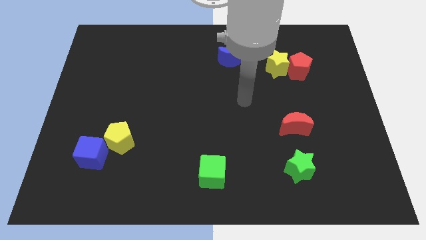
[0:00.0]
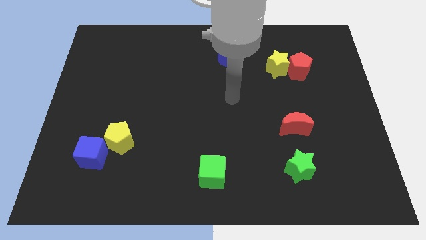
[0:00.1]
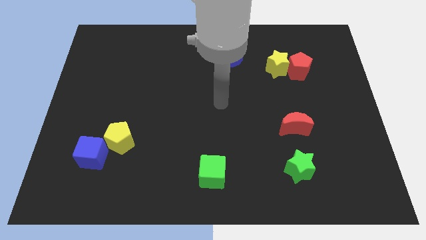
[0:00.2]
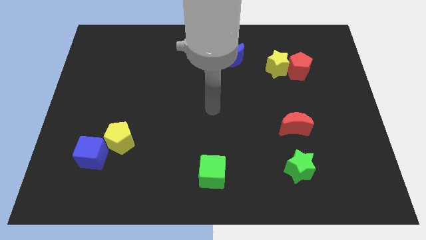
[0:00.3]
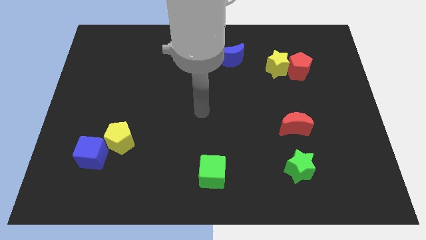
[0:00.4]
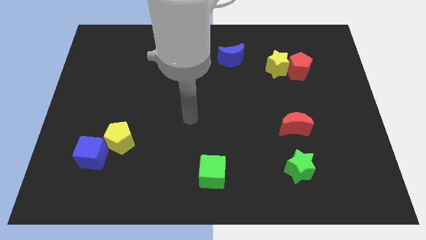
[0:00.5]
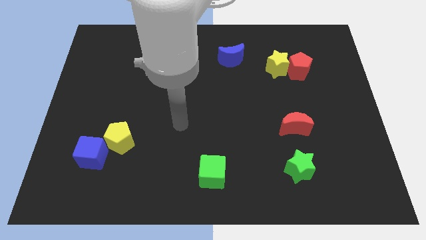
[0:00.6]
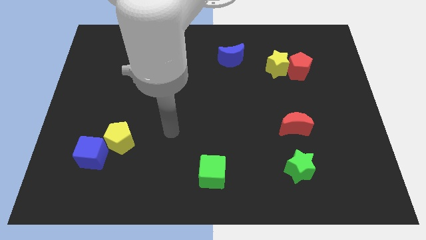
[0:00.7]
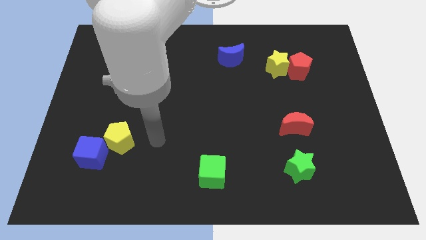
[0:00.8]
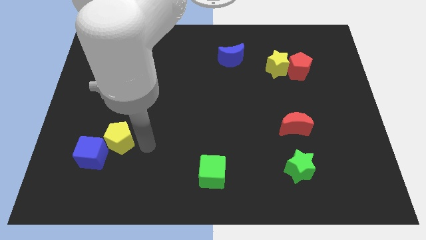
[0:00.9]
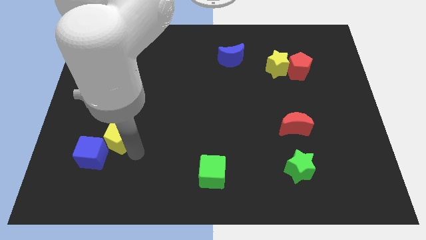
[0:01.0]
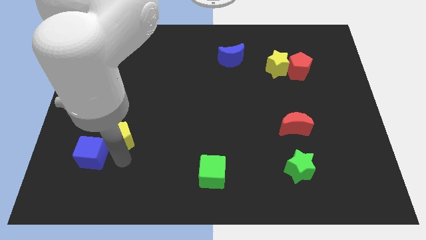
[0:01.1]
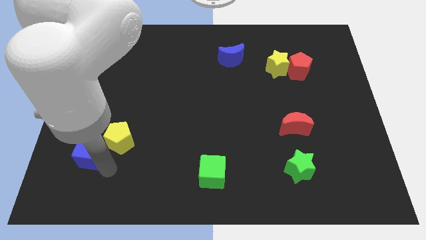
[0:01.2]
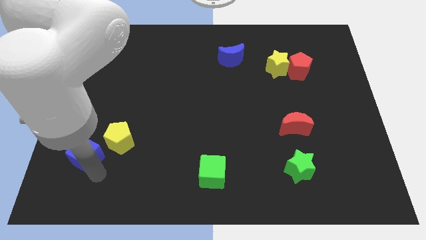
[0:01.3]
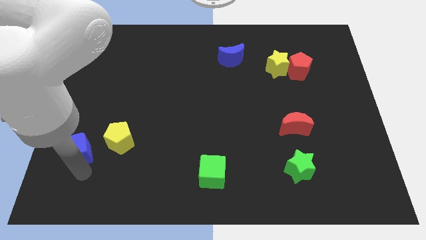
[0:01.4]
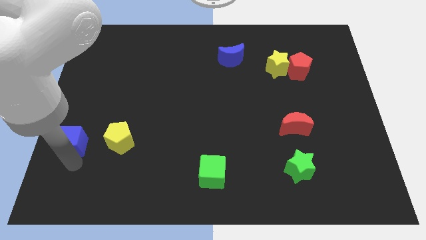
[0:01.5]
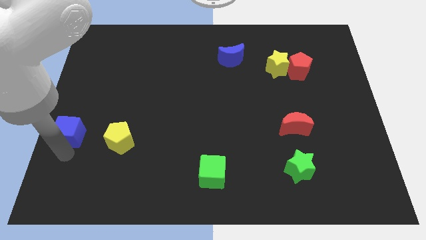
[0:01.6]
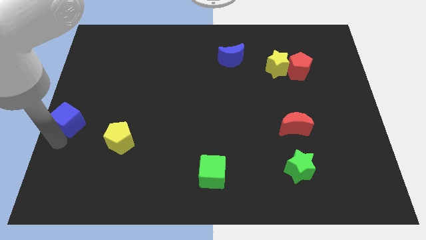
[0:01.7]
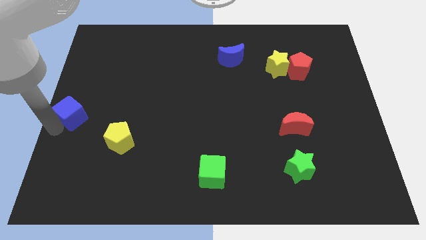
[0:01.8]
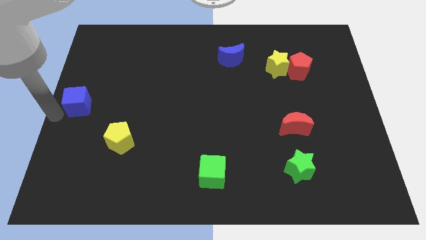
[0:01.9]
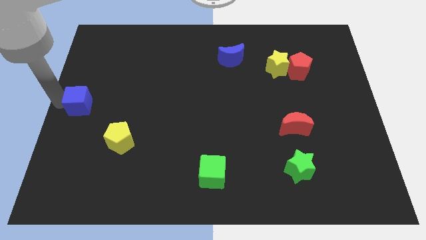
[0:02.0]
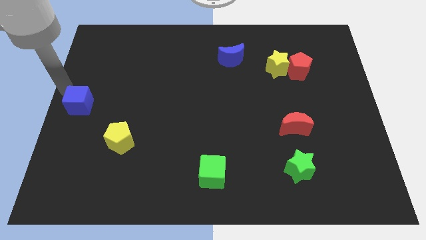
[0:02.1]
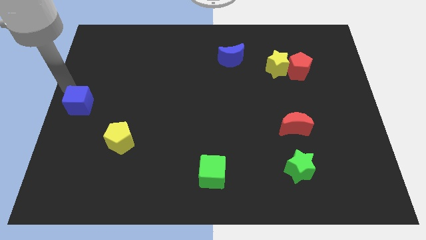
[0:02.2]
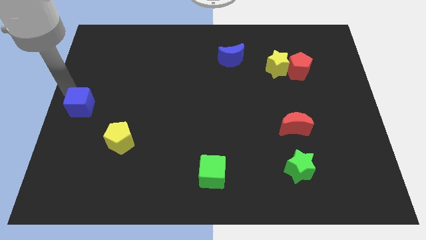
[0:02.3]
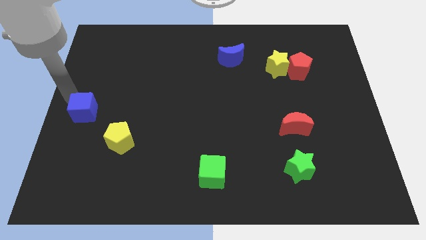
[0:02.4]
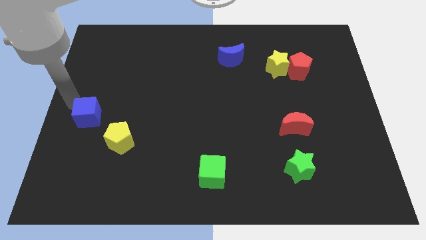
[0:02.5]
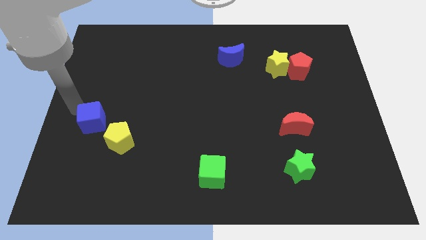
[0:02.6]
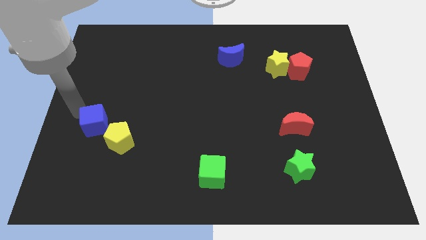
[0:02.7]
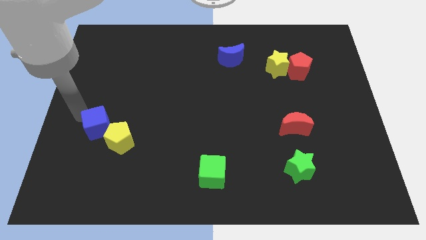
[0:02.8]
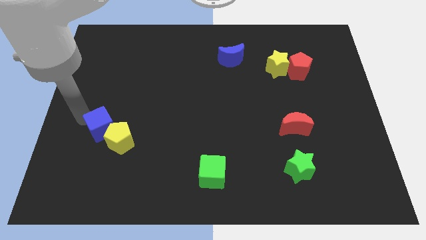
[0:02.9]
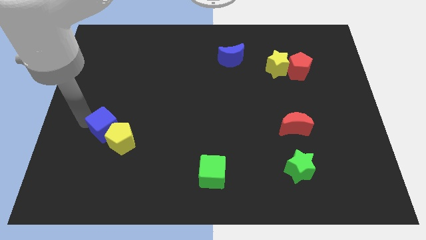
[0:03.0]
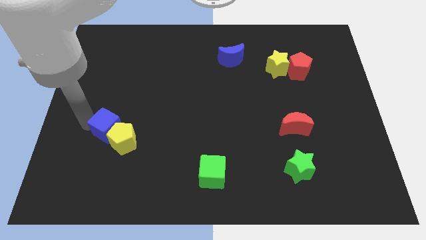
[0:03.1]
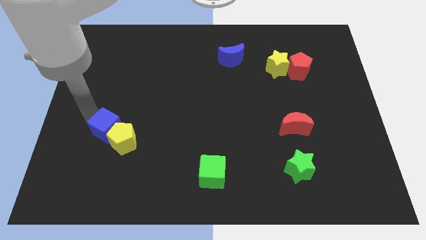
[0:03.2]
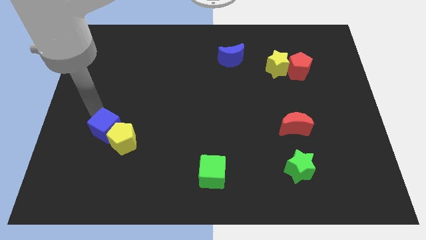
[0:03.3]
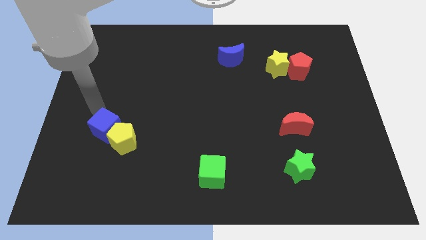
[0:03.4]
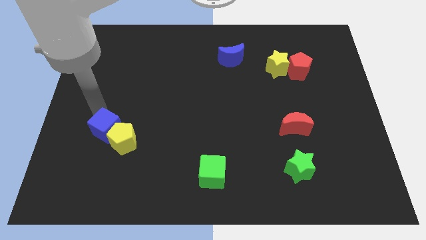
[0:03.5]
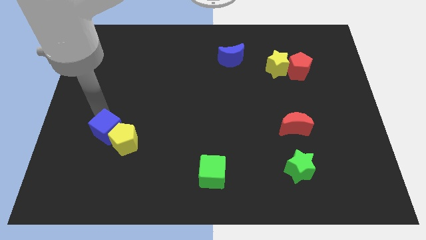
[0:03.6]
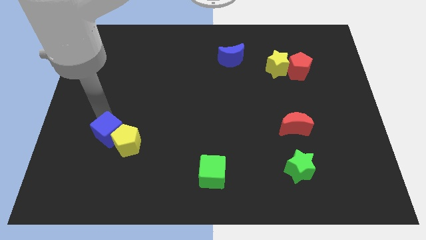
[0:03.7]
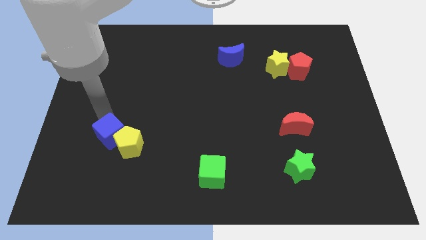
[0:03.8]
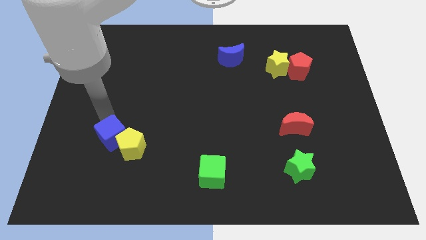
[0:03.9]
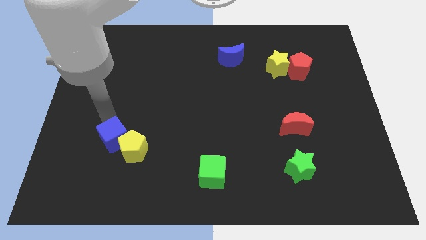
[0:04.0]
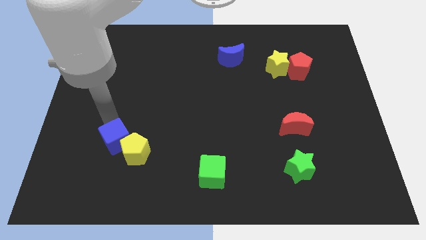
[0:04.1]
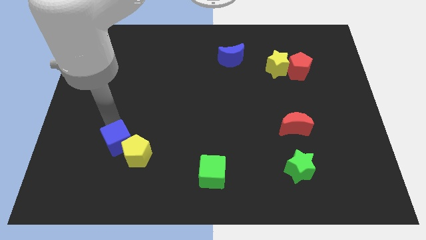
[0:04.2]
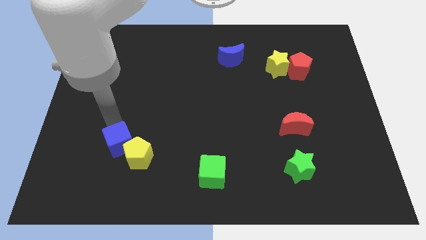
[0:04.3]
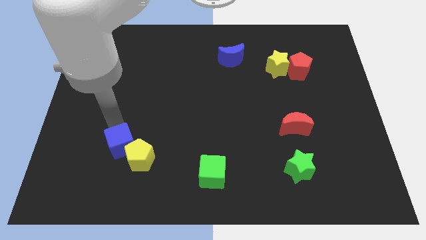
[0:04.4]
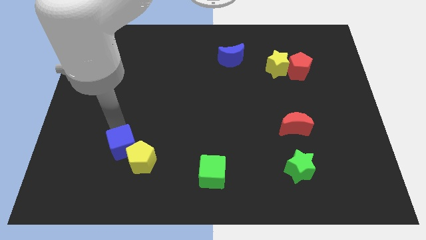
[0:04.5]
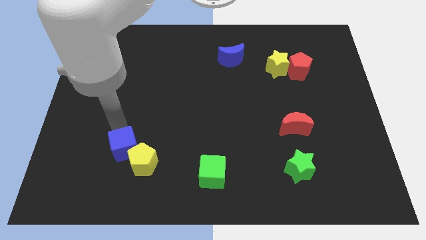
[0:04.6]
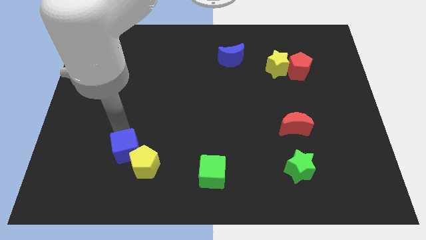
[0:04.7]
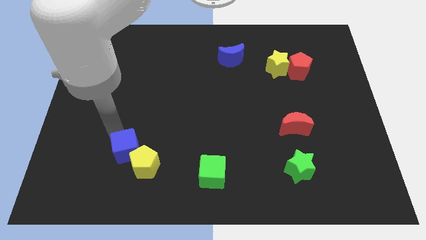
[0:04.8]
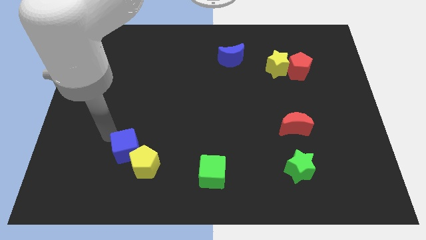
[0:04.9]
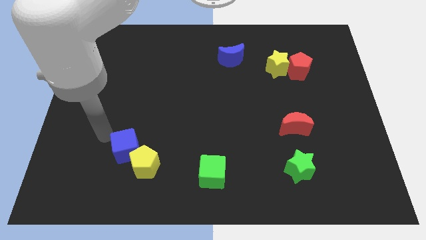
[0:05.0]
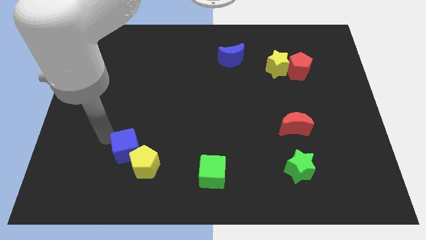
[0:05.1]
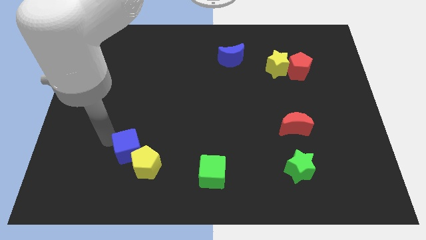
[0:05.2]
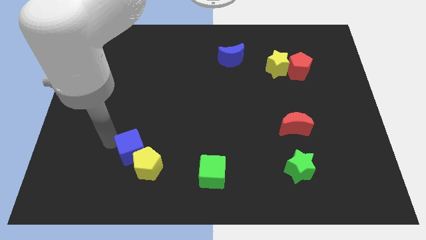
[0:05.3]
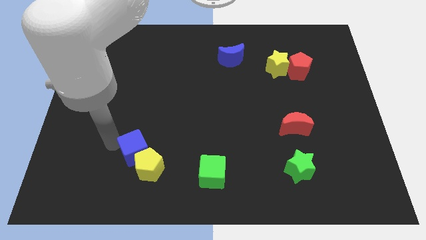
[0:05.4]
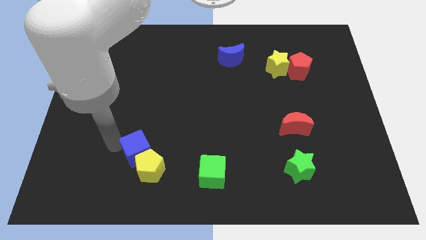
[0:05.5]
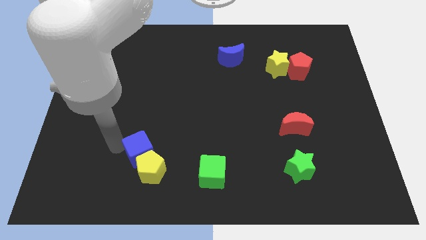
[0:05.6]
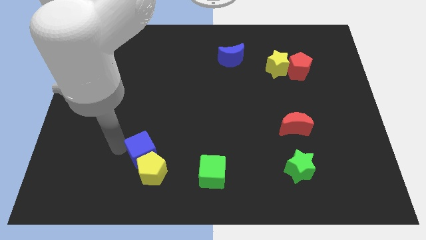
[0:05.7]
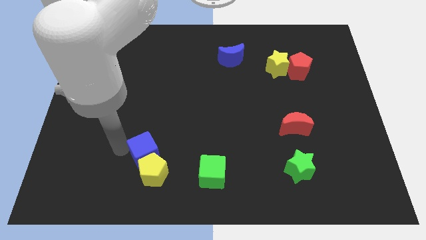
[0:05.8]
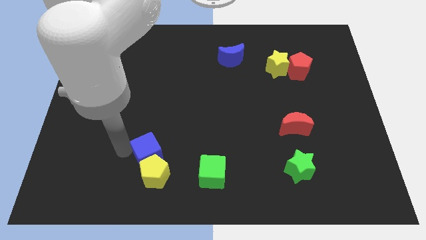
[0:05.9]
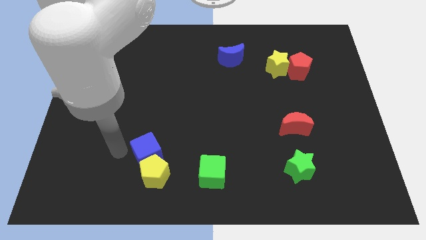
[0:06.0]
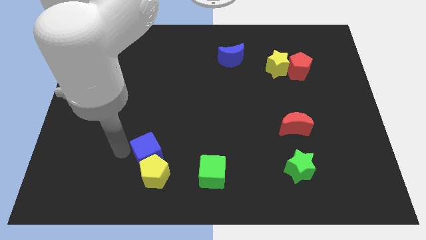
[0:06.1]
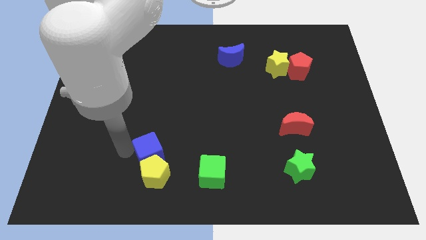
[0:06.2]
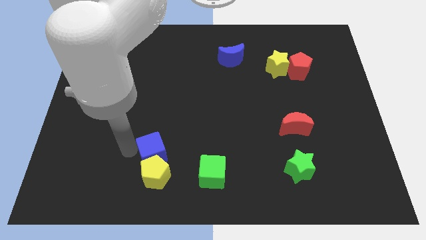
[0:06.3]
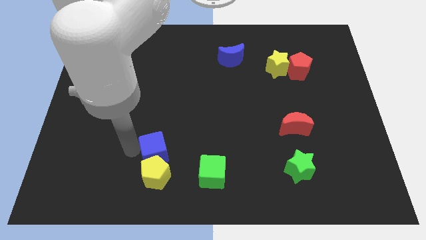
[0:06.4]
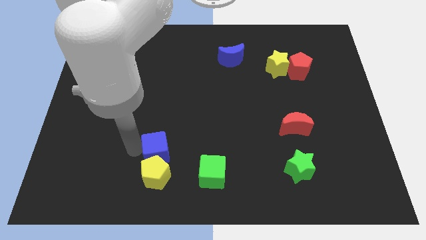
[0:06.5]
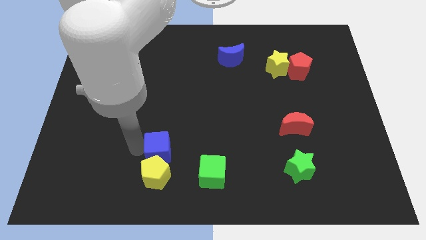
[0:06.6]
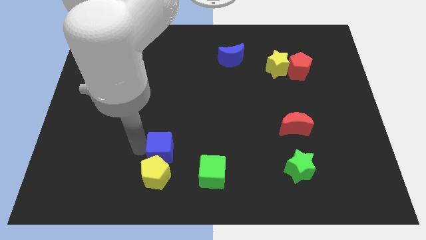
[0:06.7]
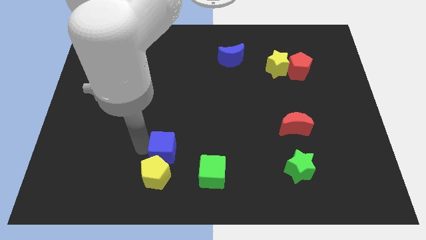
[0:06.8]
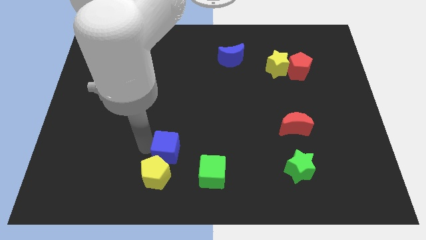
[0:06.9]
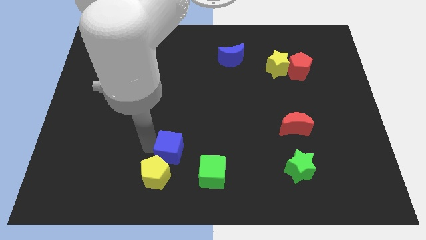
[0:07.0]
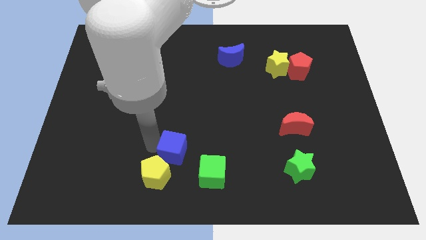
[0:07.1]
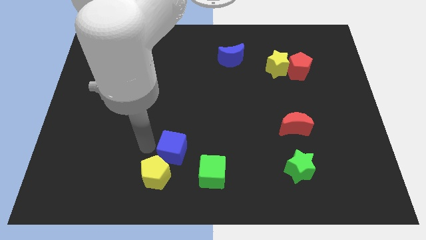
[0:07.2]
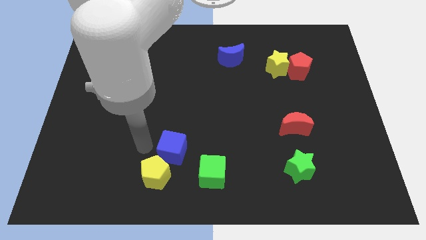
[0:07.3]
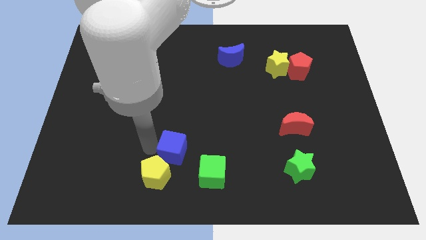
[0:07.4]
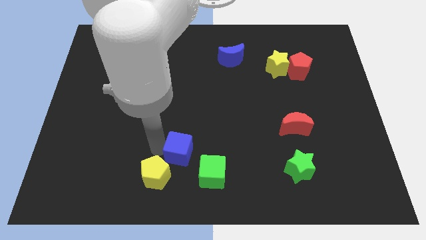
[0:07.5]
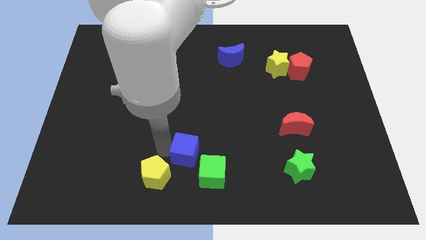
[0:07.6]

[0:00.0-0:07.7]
slide the blue cube to the right

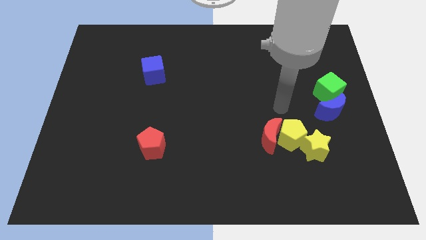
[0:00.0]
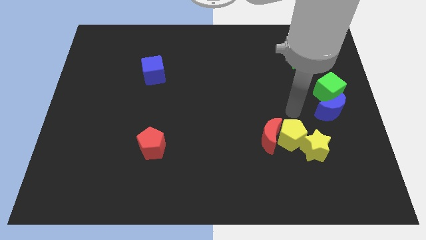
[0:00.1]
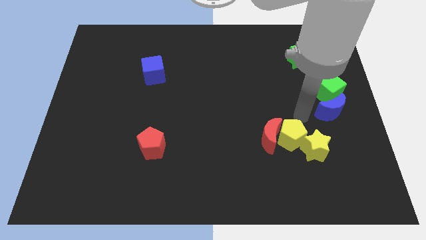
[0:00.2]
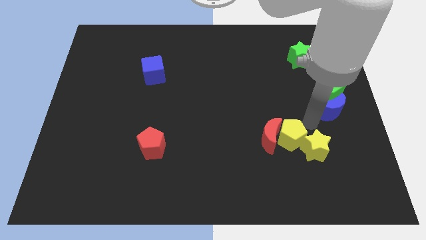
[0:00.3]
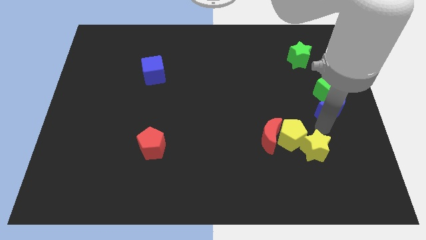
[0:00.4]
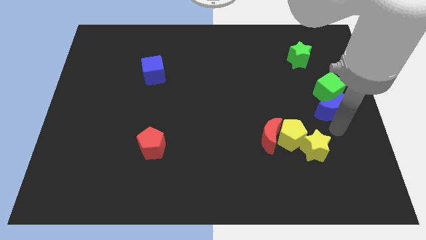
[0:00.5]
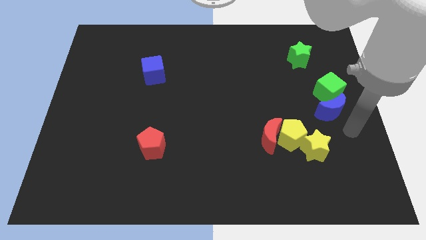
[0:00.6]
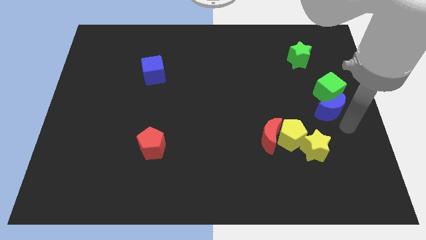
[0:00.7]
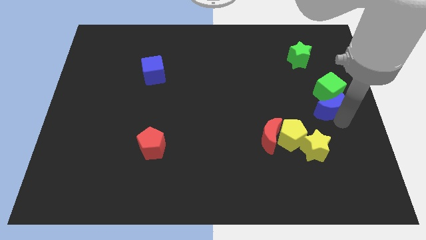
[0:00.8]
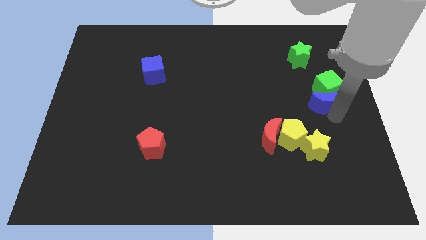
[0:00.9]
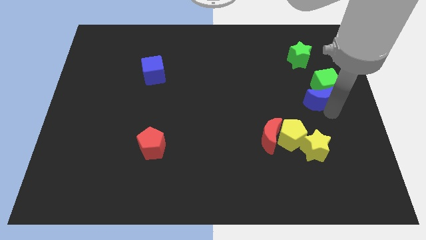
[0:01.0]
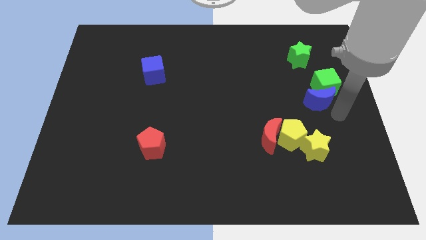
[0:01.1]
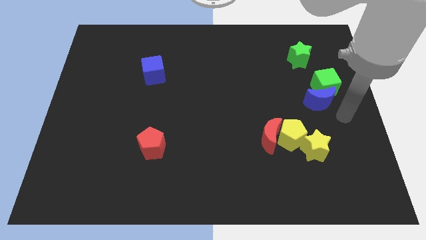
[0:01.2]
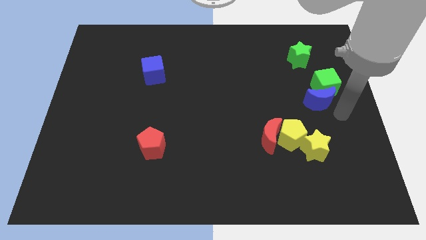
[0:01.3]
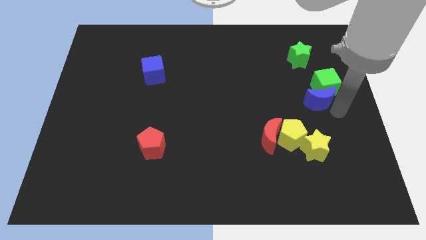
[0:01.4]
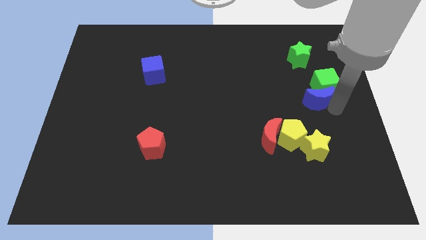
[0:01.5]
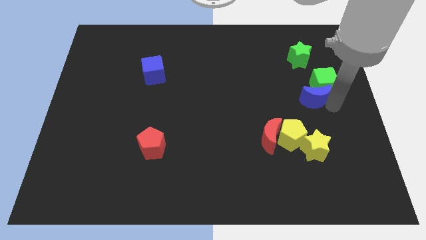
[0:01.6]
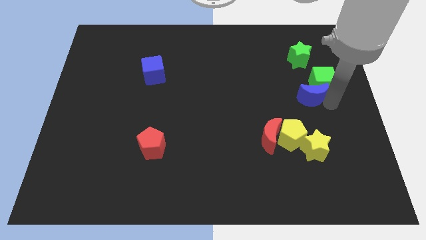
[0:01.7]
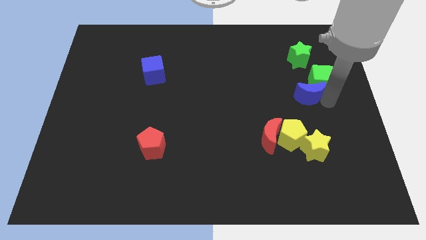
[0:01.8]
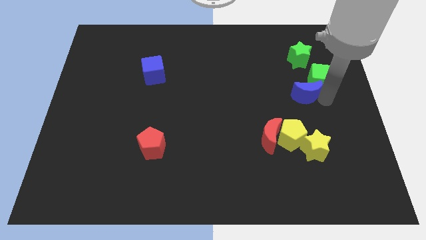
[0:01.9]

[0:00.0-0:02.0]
push the blue moon somewhat diagonally up and to the left
